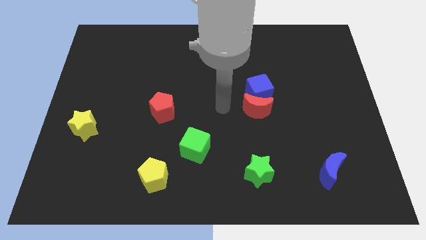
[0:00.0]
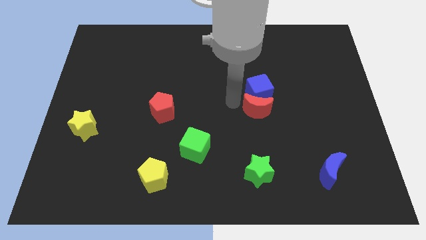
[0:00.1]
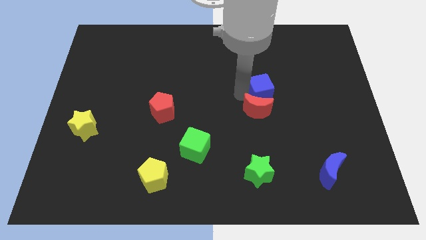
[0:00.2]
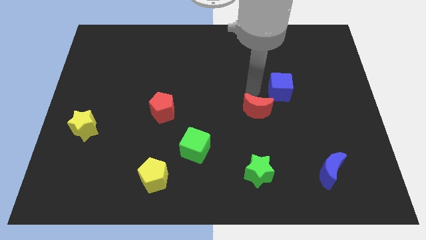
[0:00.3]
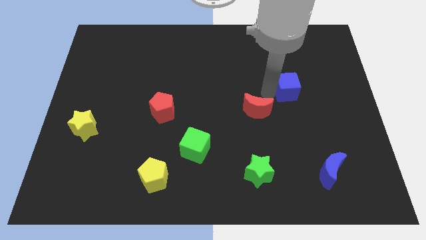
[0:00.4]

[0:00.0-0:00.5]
separate the red moon from the blue cube

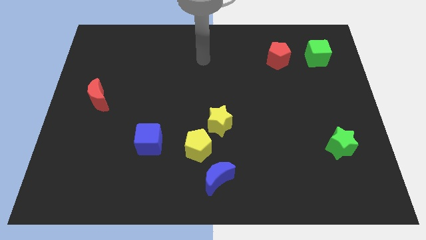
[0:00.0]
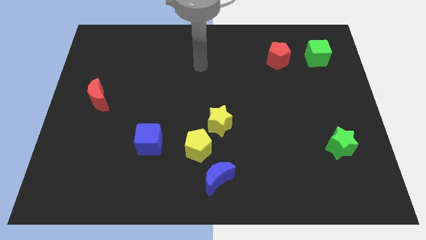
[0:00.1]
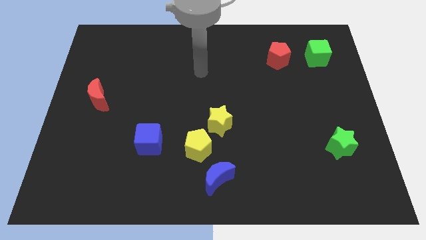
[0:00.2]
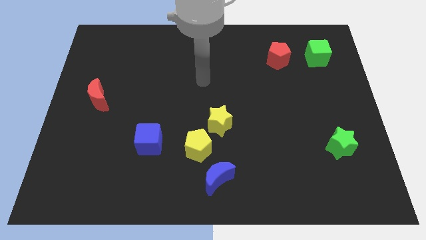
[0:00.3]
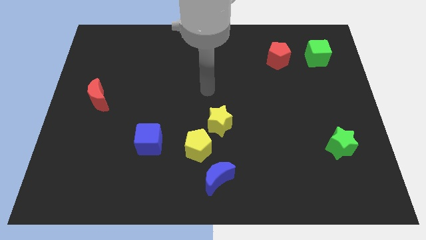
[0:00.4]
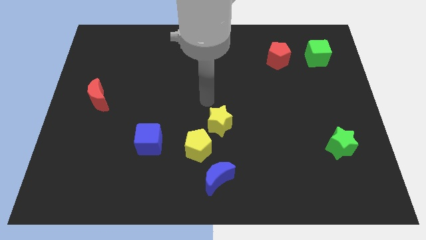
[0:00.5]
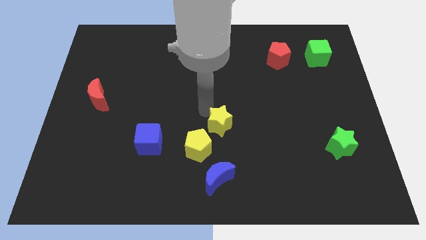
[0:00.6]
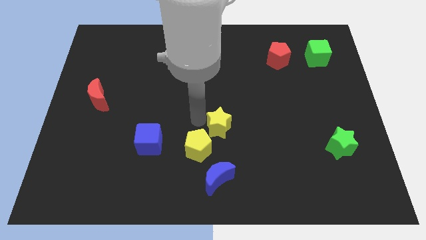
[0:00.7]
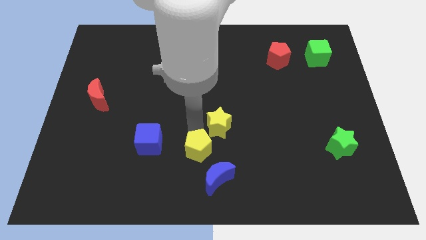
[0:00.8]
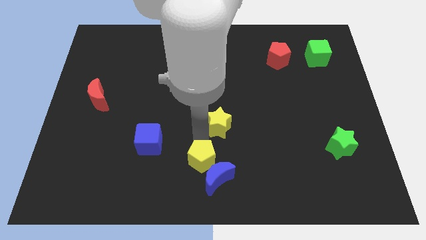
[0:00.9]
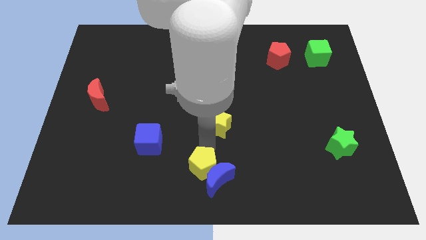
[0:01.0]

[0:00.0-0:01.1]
separate the yellow star from the yellow pentagon

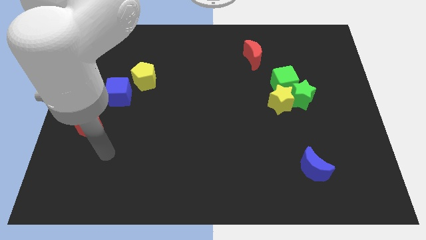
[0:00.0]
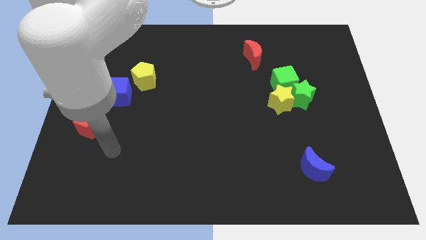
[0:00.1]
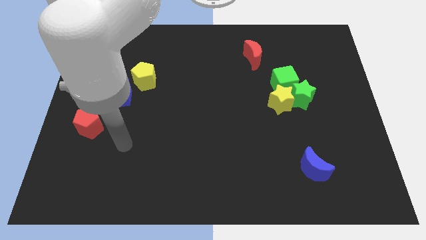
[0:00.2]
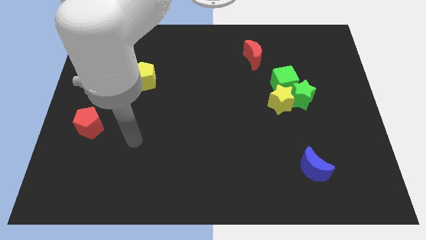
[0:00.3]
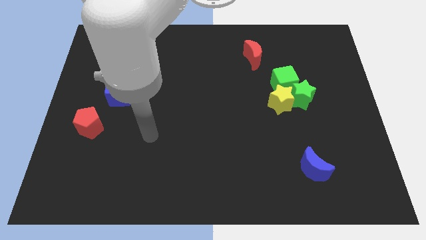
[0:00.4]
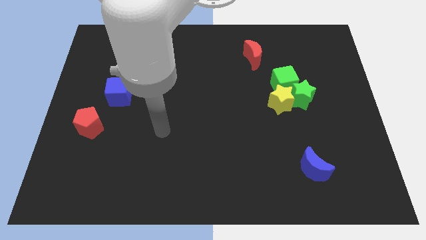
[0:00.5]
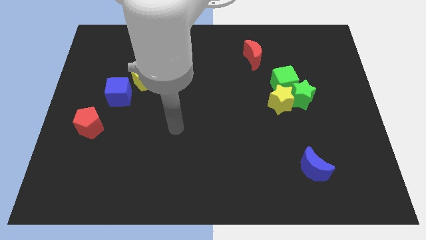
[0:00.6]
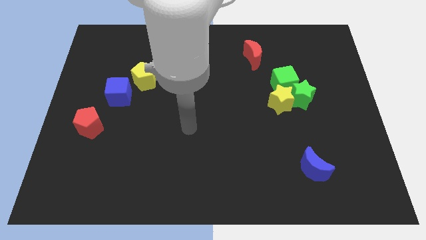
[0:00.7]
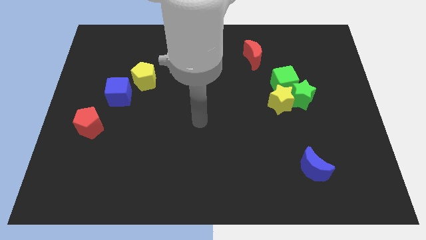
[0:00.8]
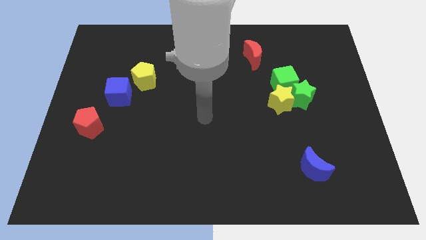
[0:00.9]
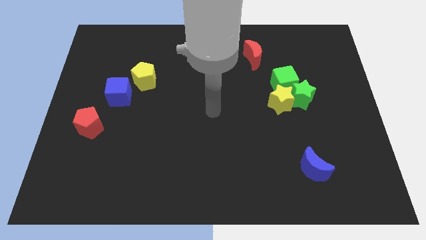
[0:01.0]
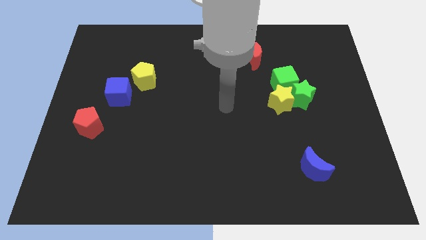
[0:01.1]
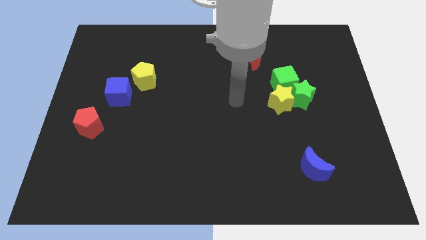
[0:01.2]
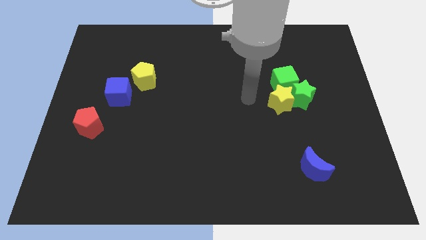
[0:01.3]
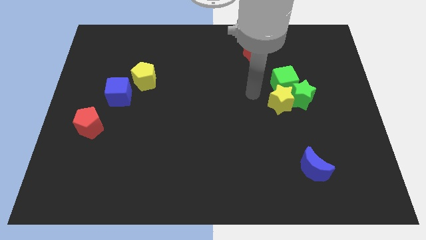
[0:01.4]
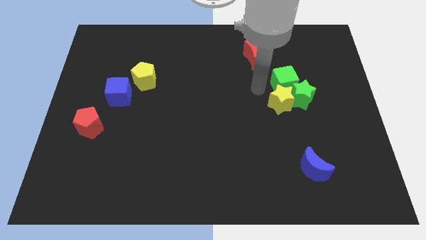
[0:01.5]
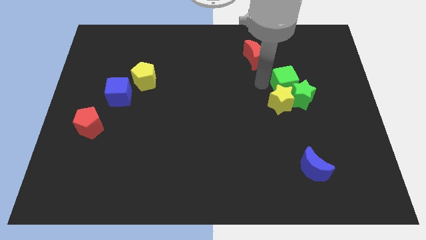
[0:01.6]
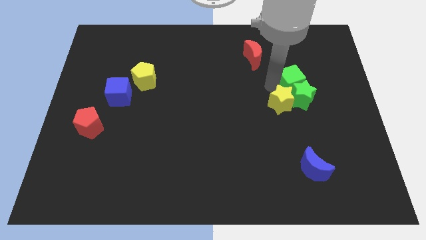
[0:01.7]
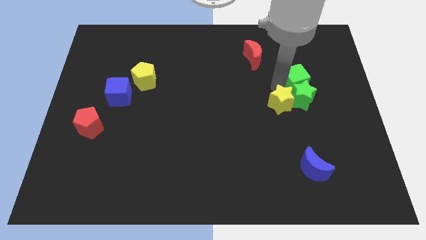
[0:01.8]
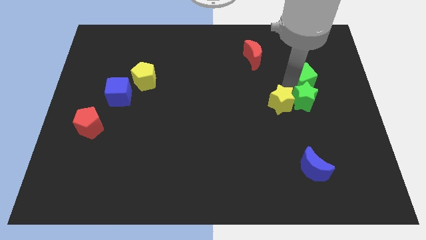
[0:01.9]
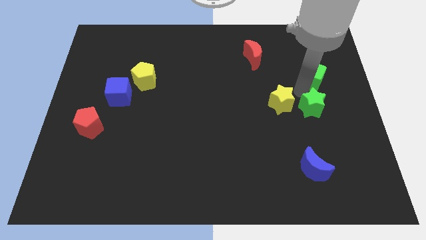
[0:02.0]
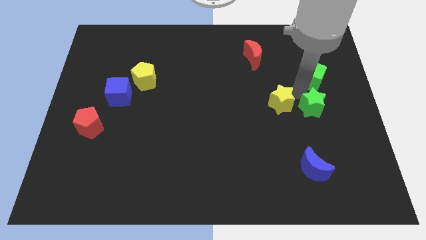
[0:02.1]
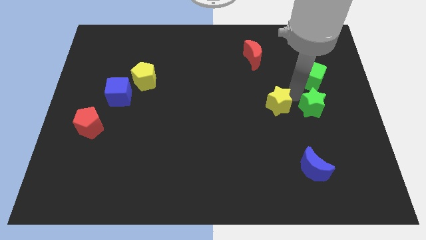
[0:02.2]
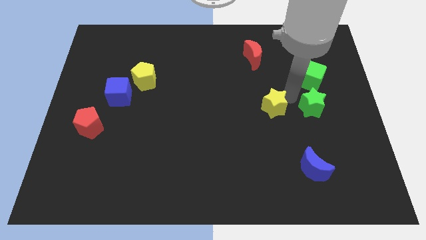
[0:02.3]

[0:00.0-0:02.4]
move the yellow star away from the green star and green cube

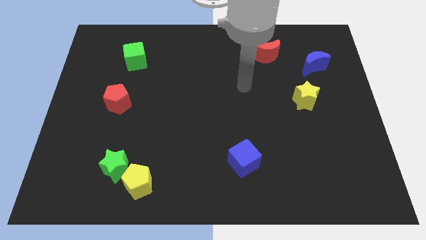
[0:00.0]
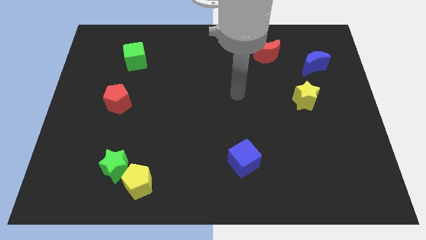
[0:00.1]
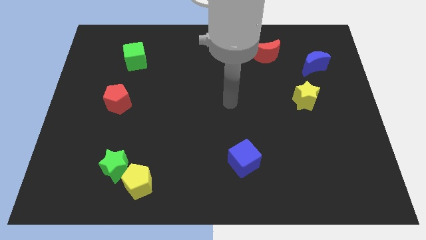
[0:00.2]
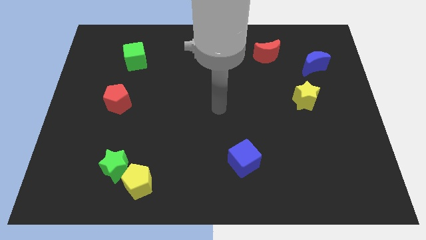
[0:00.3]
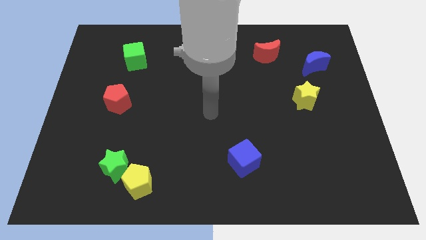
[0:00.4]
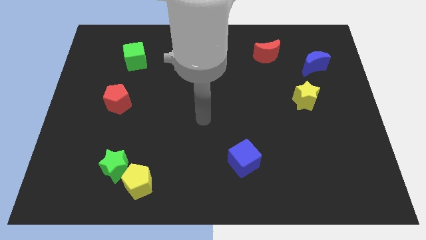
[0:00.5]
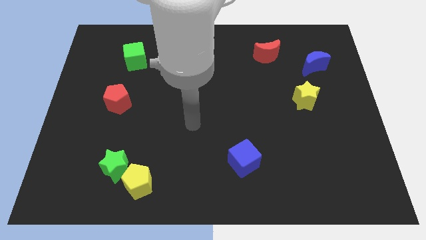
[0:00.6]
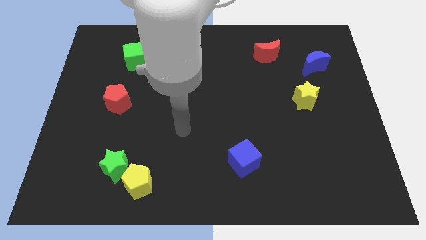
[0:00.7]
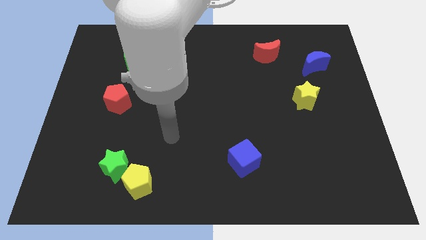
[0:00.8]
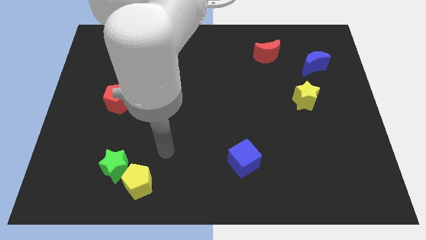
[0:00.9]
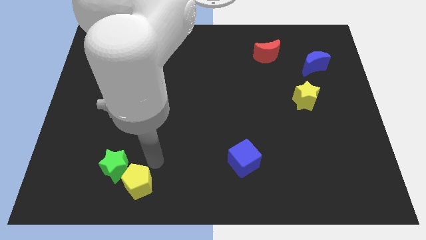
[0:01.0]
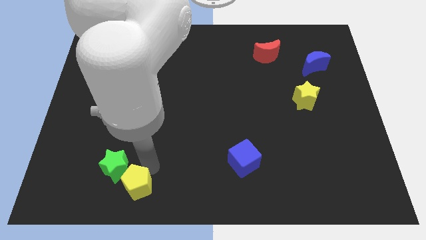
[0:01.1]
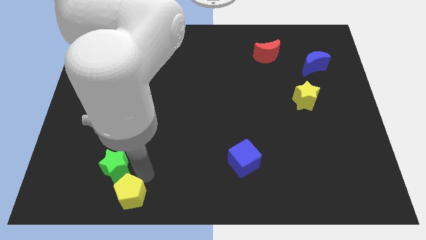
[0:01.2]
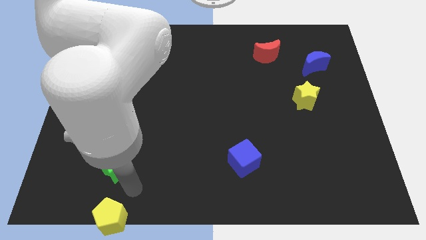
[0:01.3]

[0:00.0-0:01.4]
move the green star away from the yellow pentagon

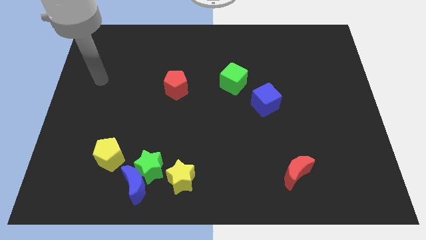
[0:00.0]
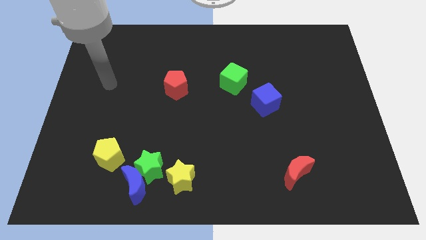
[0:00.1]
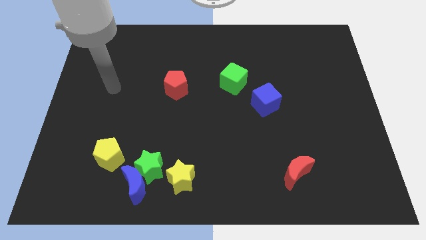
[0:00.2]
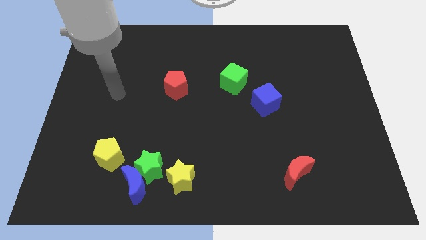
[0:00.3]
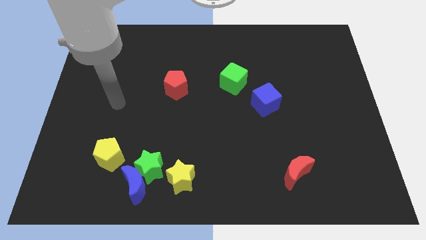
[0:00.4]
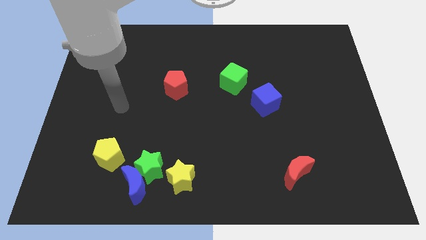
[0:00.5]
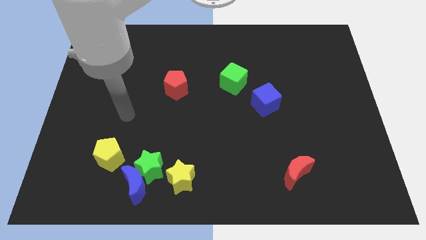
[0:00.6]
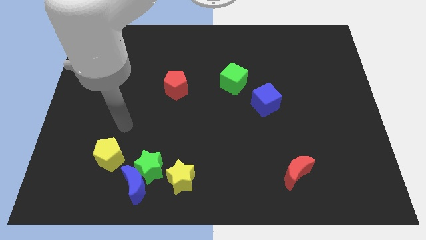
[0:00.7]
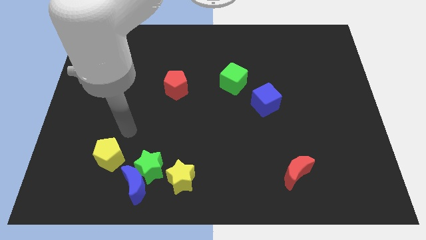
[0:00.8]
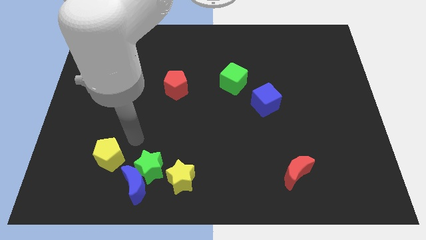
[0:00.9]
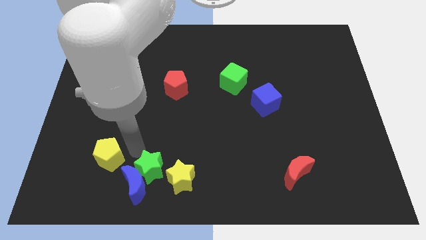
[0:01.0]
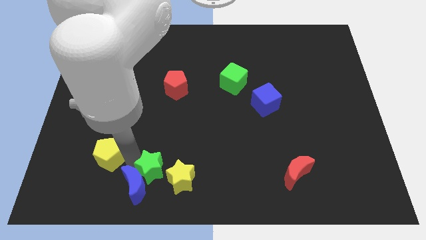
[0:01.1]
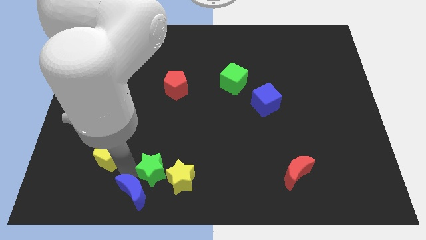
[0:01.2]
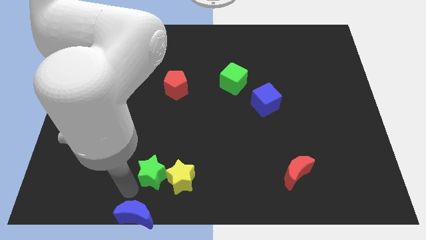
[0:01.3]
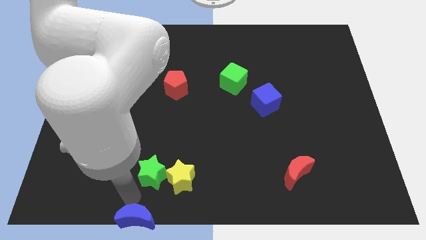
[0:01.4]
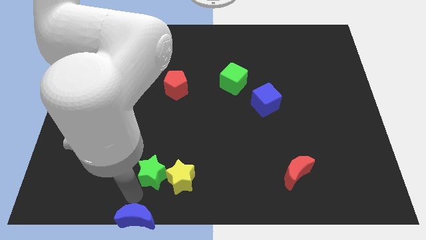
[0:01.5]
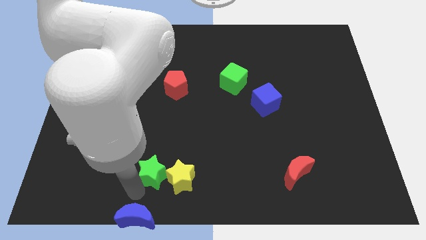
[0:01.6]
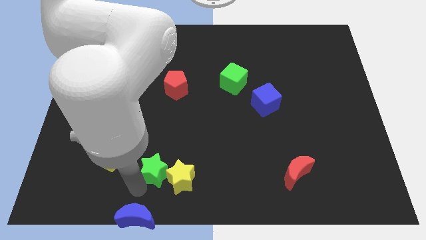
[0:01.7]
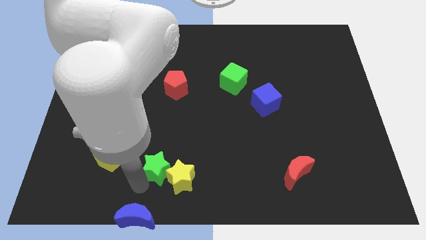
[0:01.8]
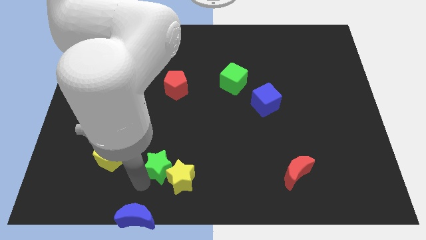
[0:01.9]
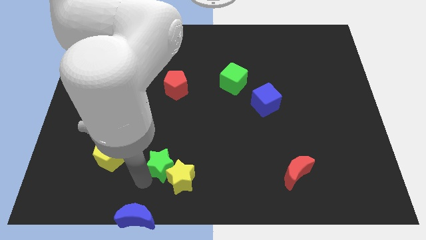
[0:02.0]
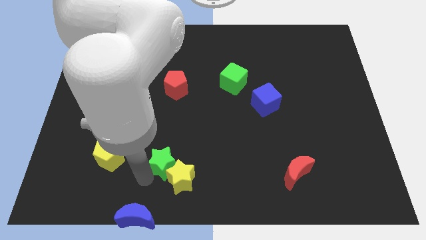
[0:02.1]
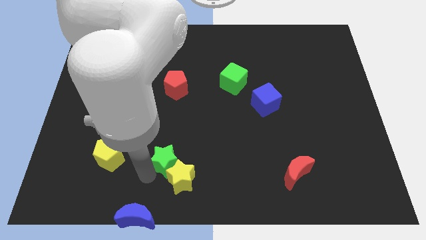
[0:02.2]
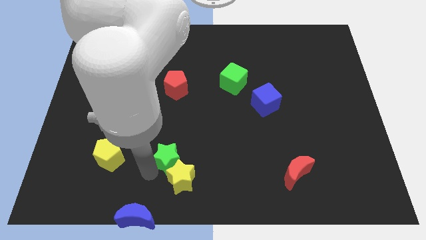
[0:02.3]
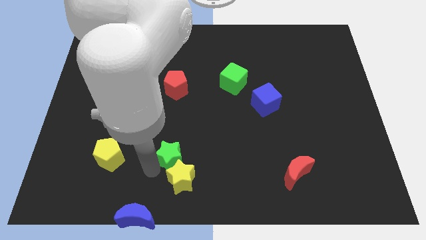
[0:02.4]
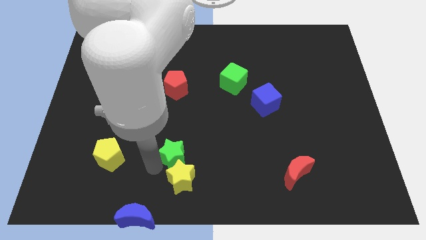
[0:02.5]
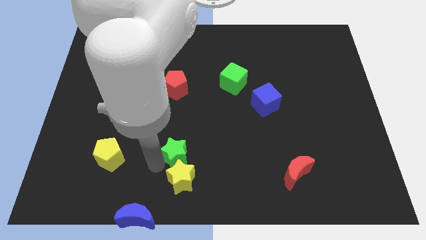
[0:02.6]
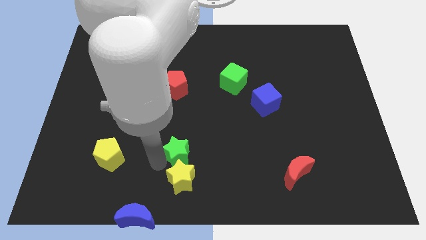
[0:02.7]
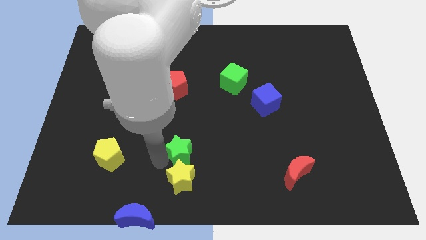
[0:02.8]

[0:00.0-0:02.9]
separate the green star from the blue moon, yellow star, and yellow pentagon

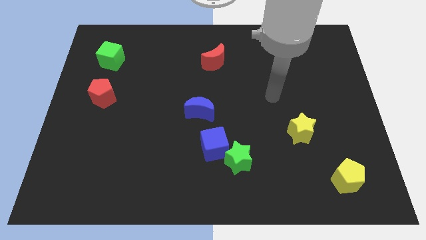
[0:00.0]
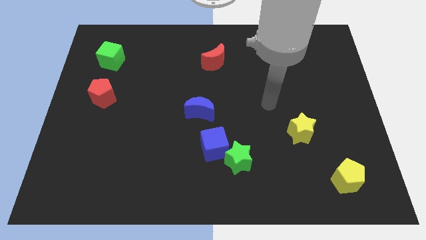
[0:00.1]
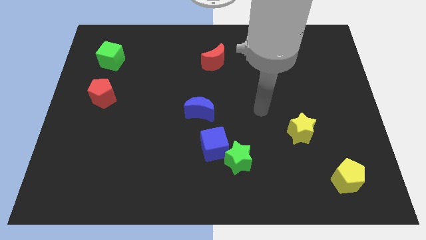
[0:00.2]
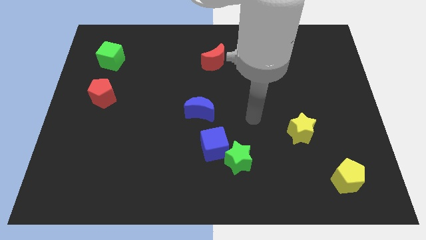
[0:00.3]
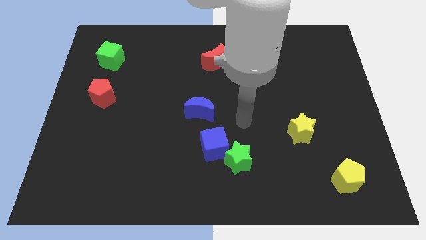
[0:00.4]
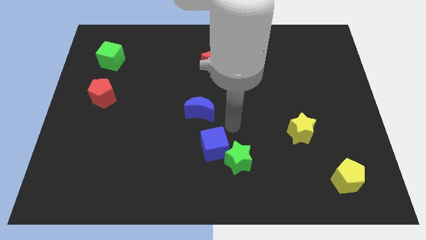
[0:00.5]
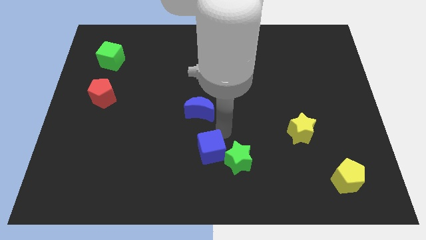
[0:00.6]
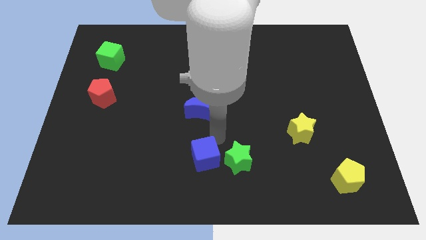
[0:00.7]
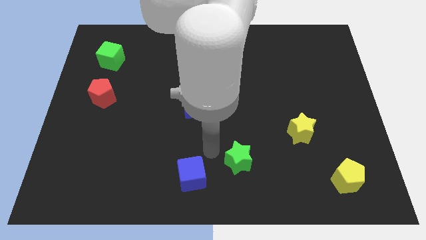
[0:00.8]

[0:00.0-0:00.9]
move the green star away from the blue cube

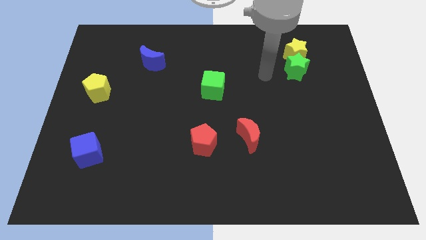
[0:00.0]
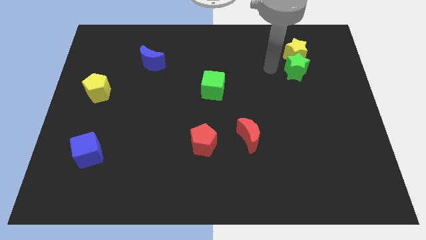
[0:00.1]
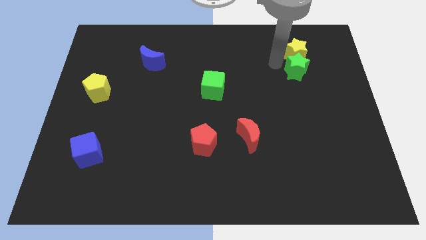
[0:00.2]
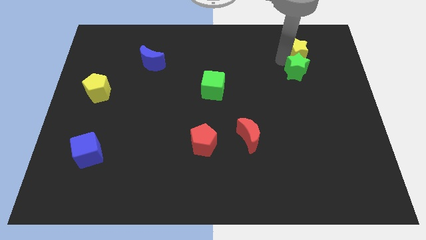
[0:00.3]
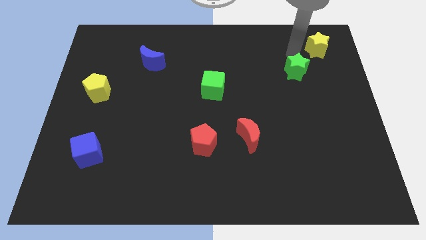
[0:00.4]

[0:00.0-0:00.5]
pull the green star apart from the yellow star
